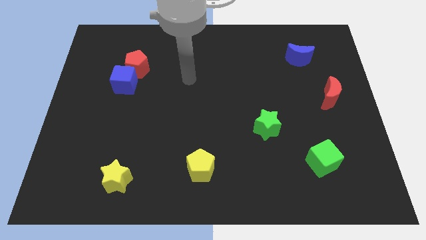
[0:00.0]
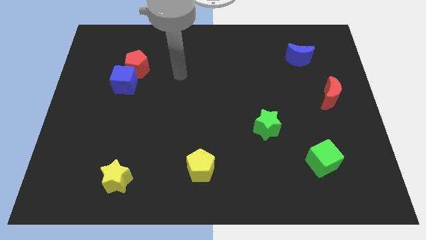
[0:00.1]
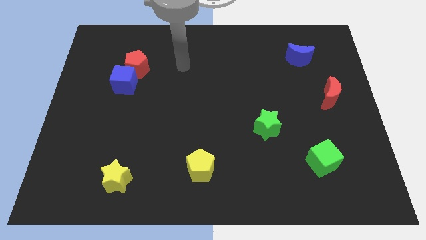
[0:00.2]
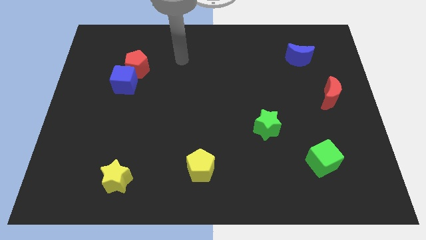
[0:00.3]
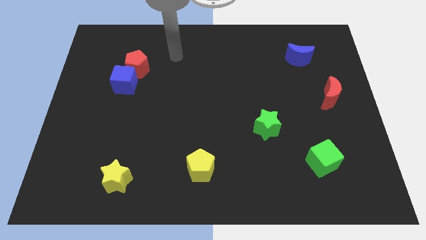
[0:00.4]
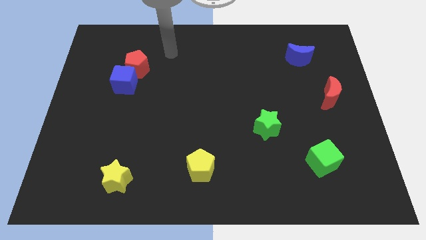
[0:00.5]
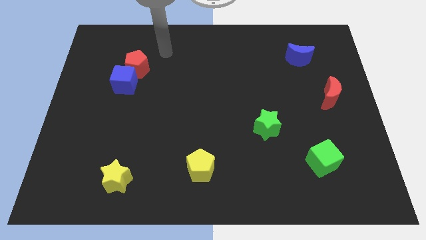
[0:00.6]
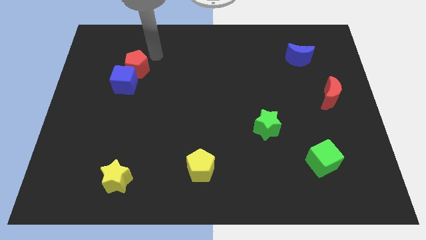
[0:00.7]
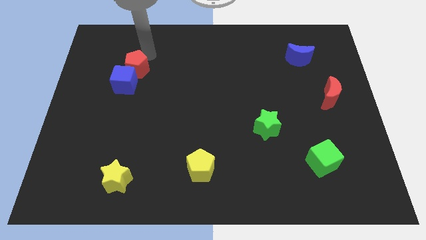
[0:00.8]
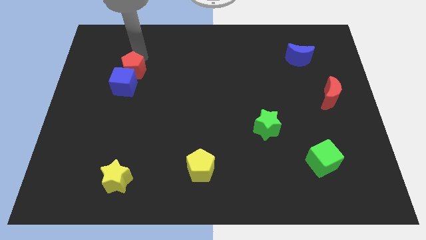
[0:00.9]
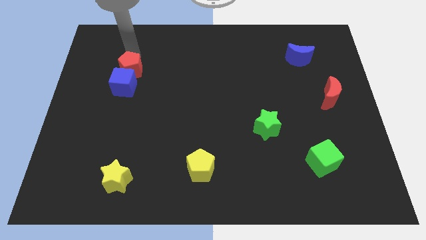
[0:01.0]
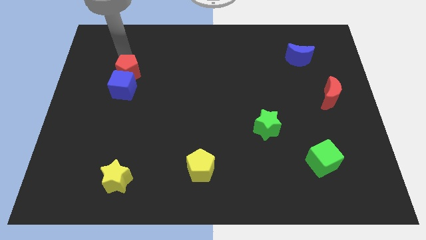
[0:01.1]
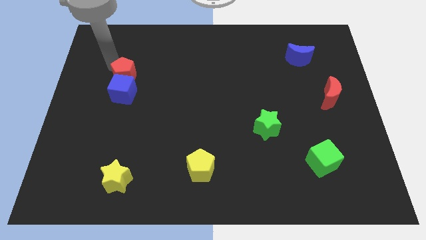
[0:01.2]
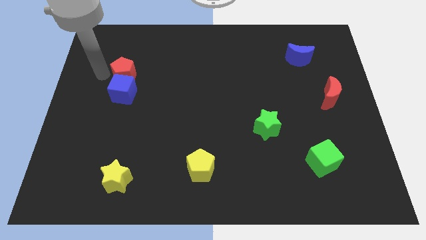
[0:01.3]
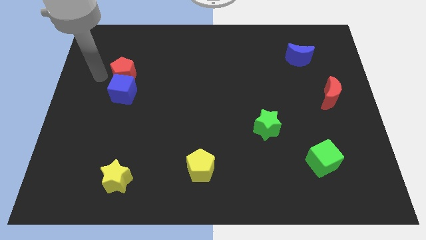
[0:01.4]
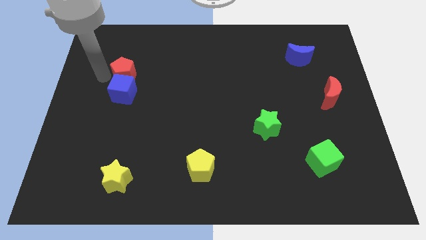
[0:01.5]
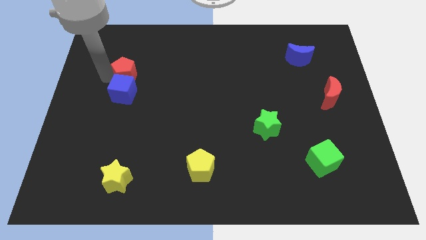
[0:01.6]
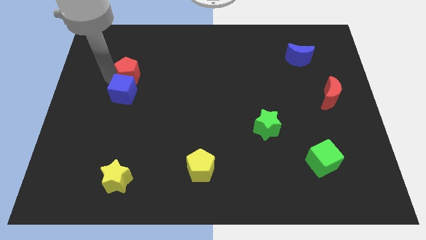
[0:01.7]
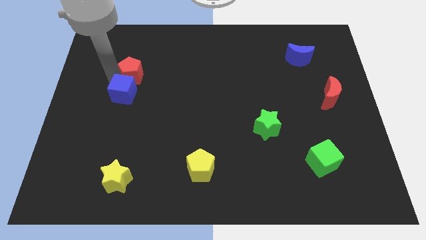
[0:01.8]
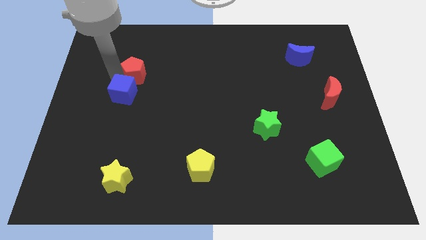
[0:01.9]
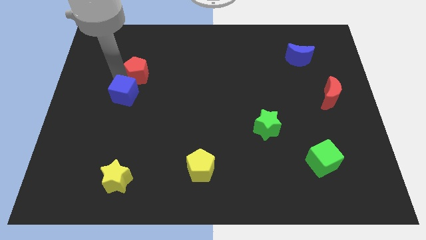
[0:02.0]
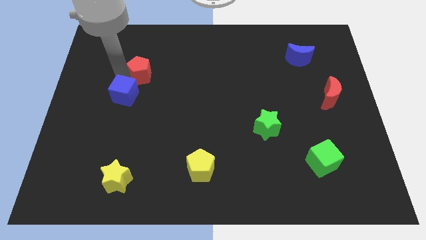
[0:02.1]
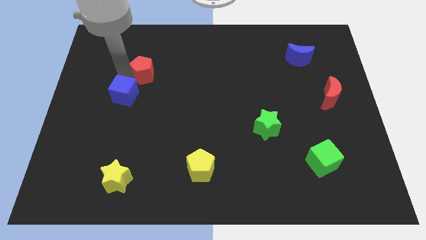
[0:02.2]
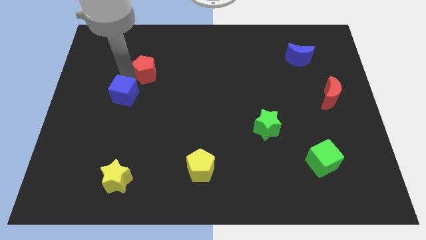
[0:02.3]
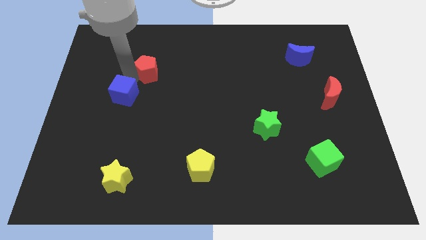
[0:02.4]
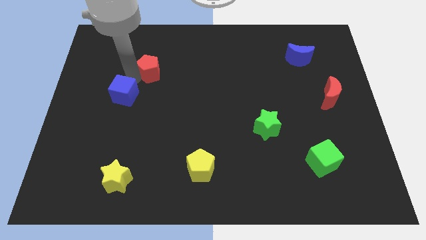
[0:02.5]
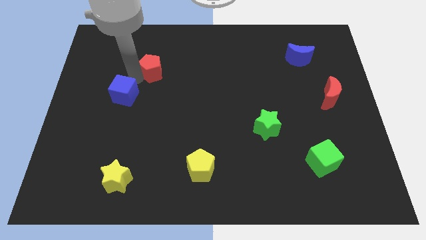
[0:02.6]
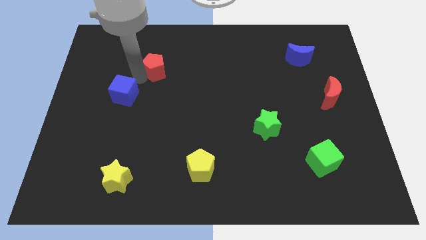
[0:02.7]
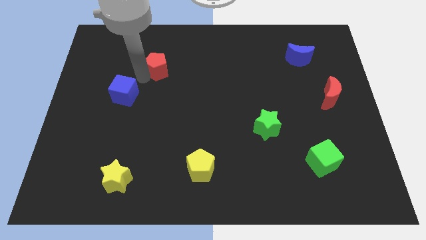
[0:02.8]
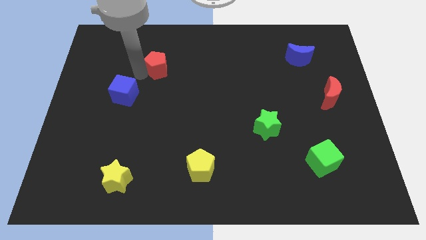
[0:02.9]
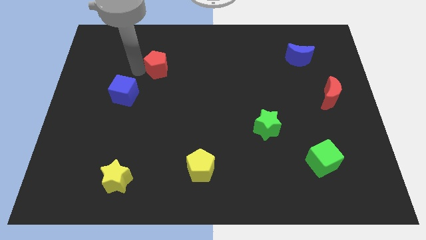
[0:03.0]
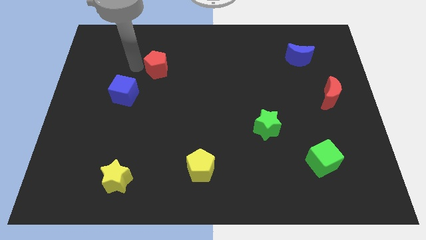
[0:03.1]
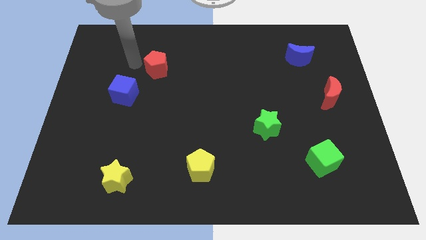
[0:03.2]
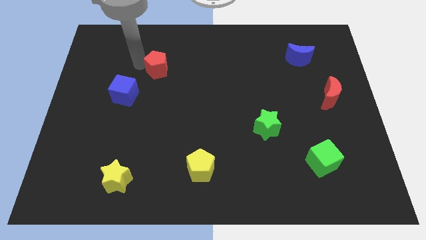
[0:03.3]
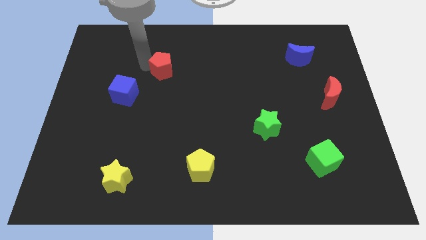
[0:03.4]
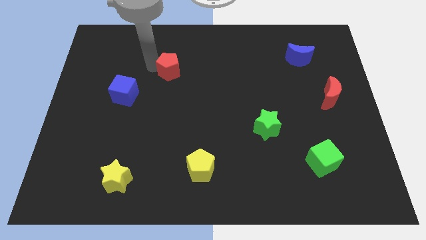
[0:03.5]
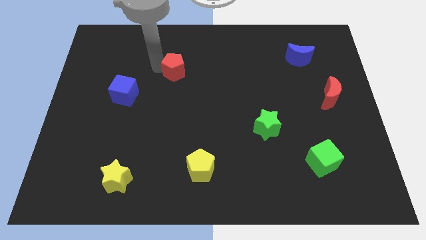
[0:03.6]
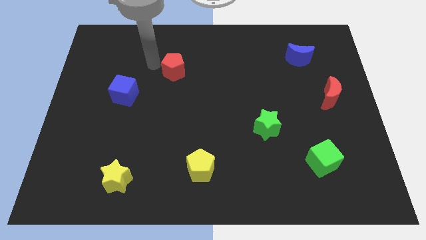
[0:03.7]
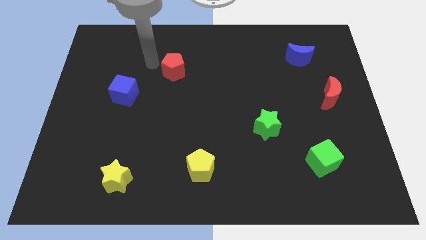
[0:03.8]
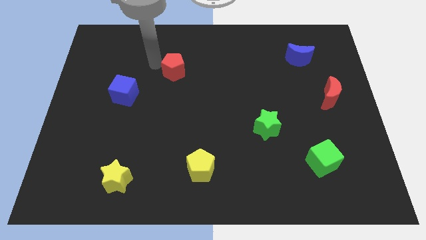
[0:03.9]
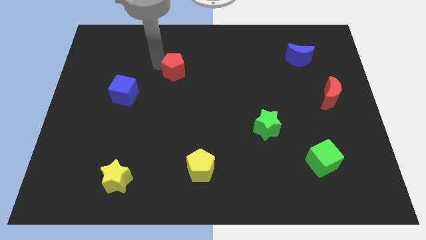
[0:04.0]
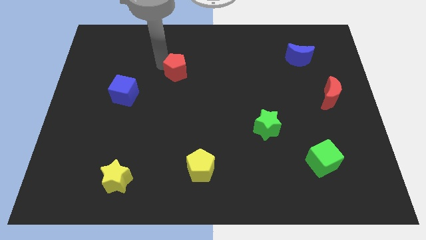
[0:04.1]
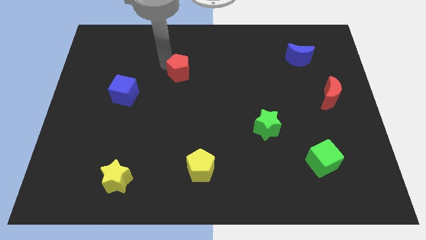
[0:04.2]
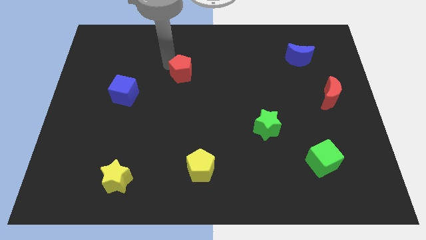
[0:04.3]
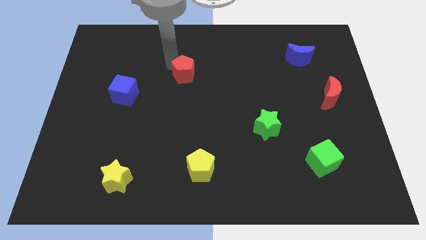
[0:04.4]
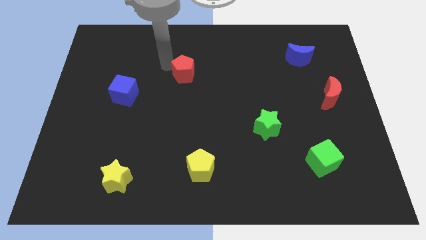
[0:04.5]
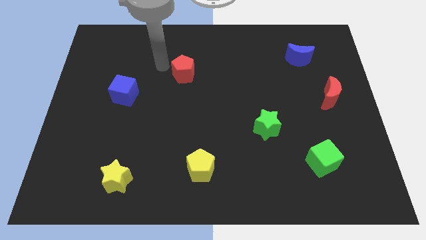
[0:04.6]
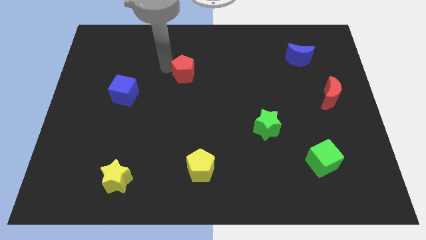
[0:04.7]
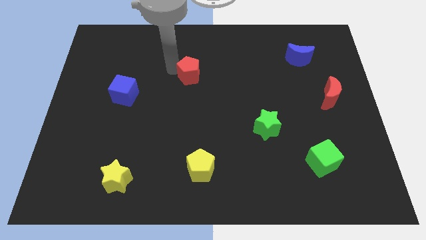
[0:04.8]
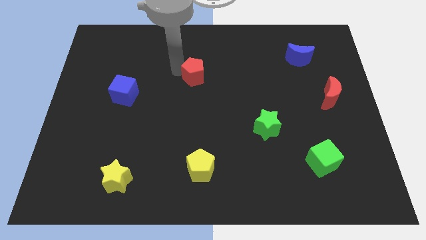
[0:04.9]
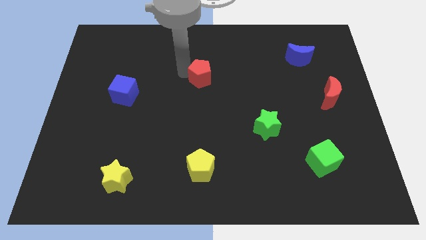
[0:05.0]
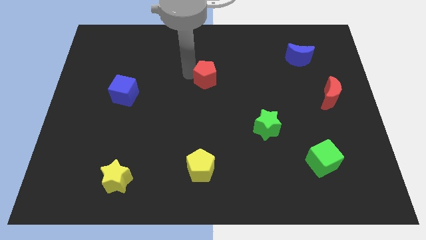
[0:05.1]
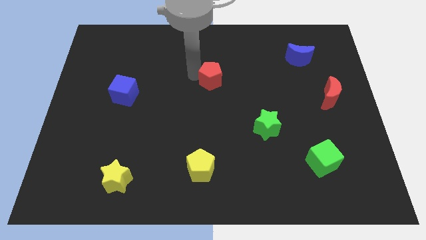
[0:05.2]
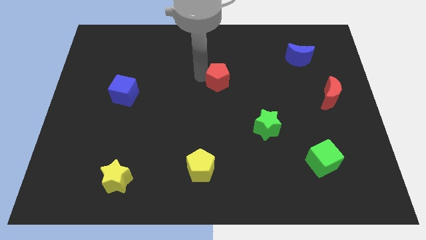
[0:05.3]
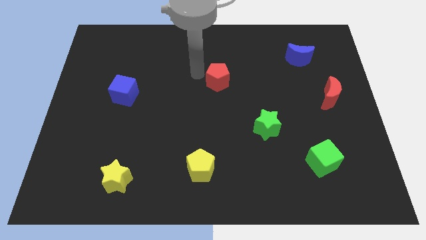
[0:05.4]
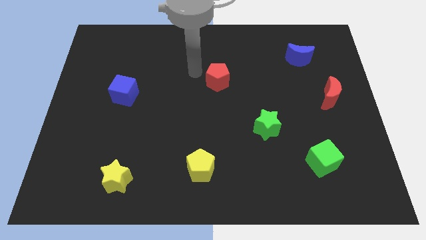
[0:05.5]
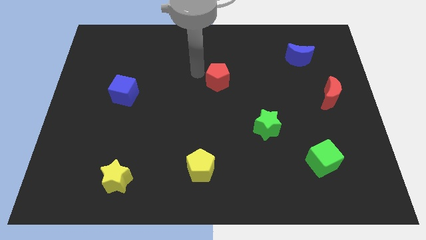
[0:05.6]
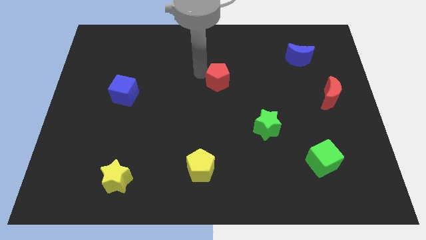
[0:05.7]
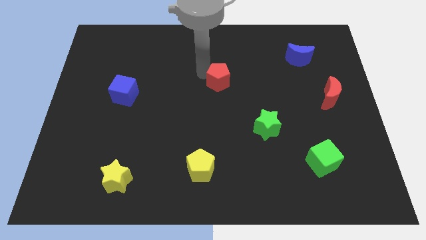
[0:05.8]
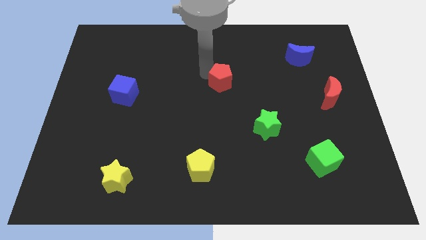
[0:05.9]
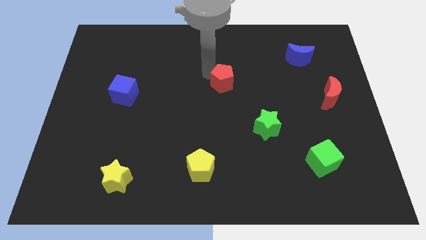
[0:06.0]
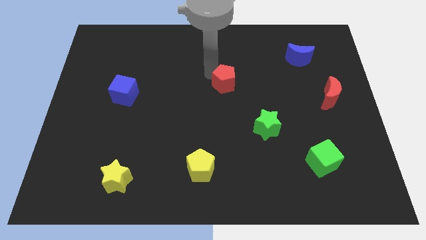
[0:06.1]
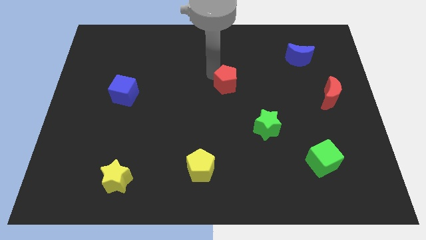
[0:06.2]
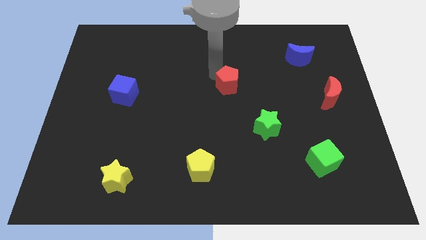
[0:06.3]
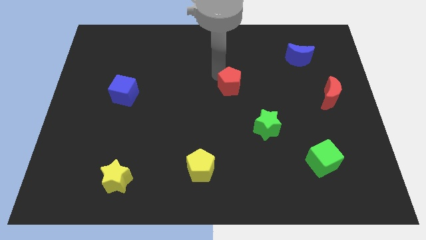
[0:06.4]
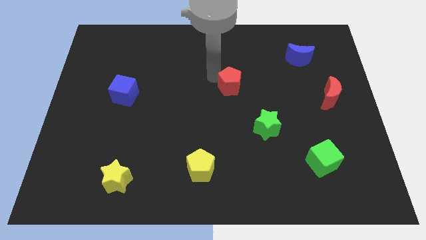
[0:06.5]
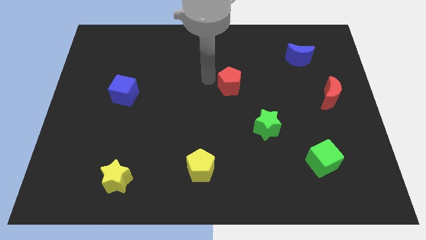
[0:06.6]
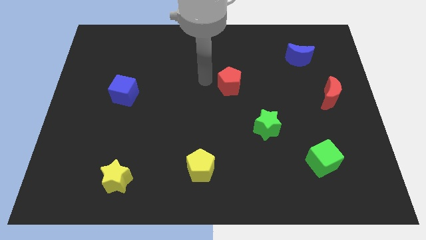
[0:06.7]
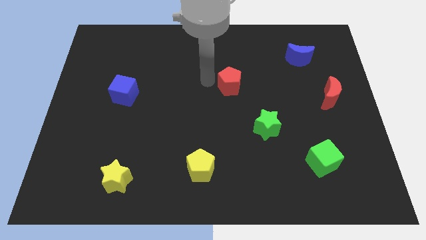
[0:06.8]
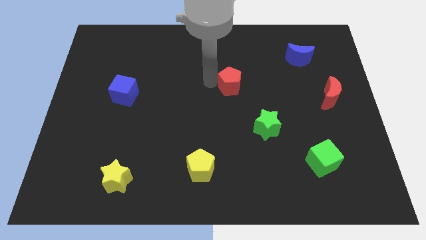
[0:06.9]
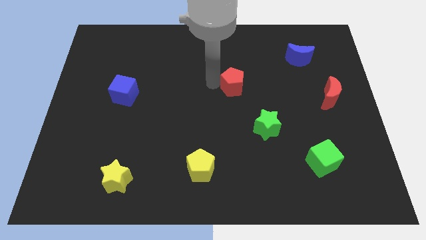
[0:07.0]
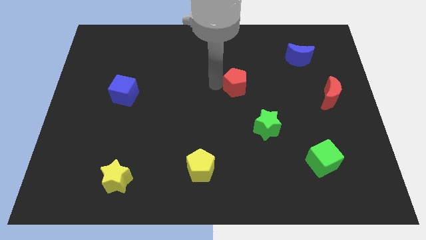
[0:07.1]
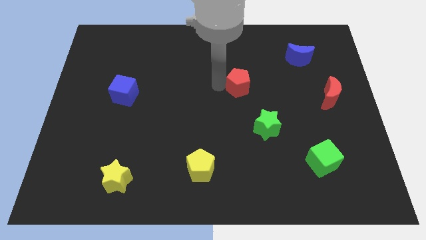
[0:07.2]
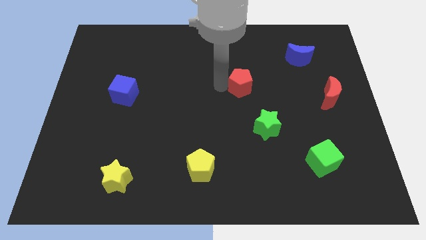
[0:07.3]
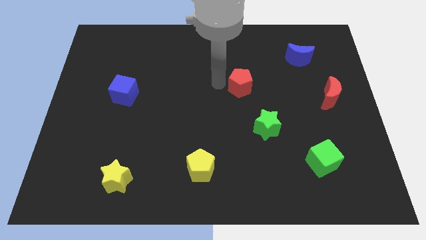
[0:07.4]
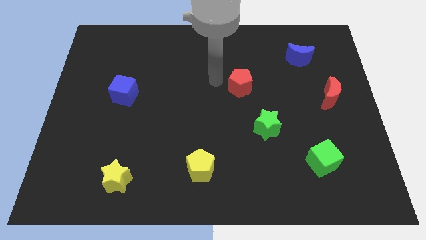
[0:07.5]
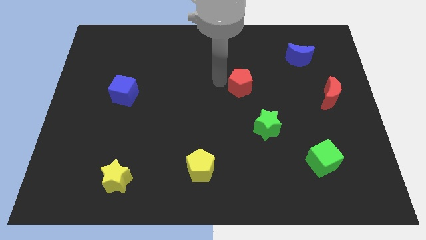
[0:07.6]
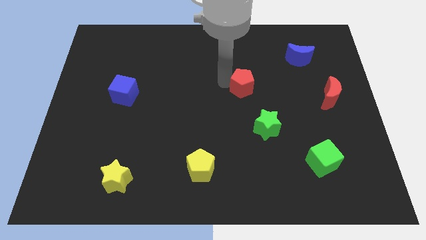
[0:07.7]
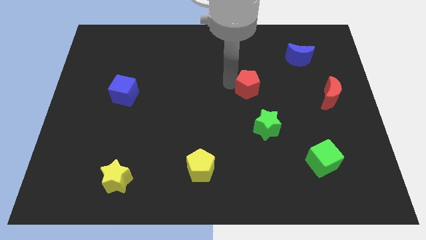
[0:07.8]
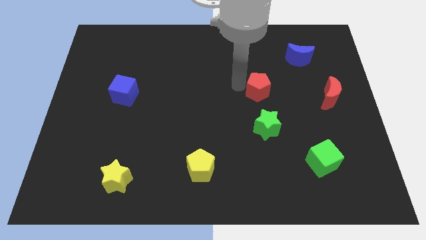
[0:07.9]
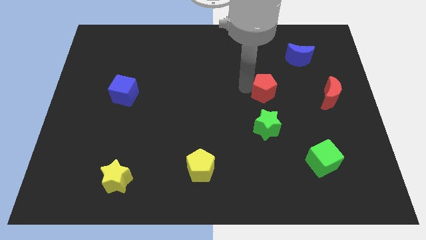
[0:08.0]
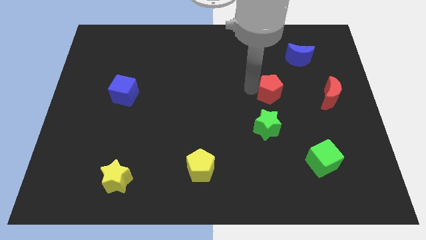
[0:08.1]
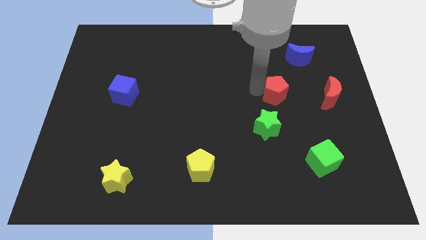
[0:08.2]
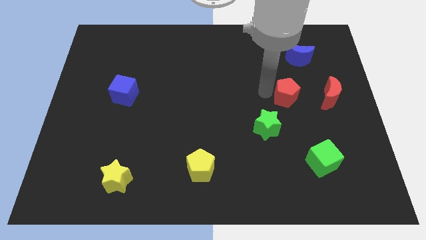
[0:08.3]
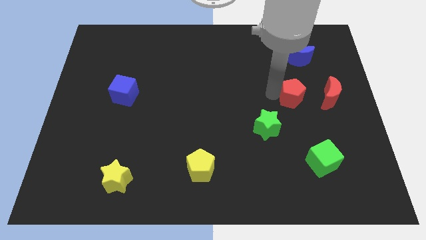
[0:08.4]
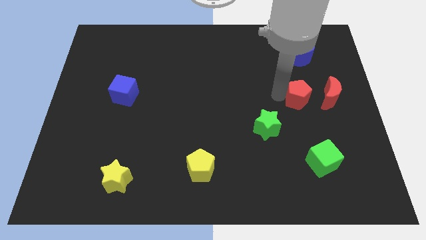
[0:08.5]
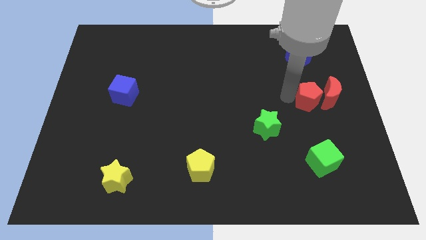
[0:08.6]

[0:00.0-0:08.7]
slide the red pentagon close to the red moon
